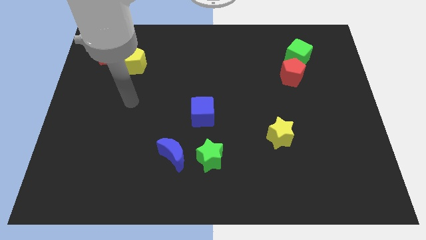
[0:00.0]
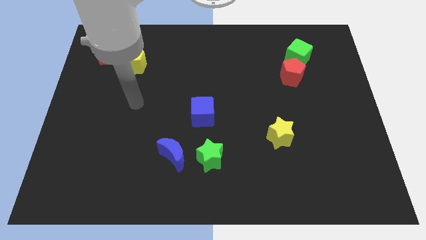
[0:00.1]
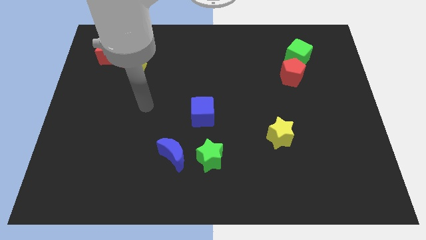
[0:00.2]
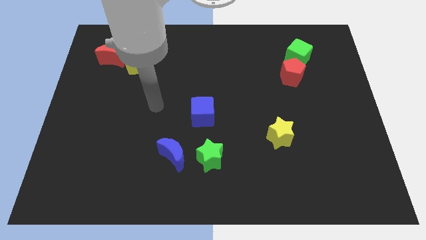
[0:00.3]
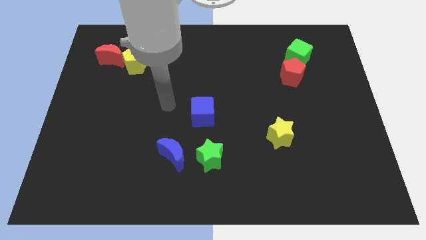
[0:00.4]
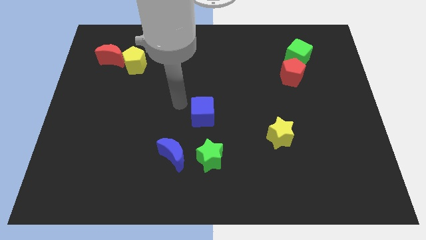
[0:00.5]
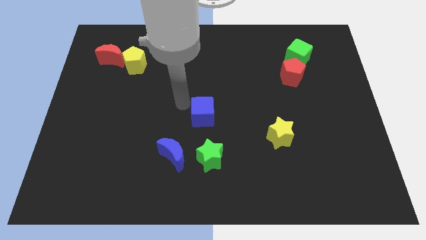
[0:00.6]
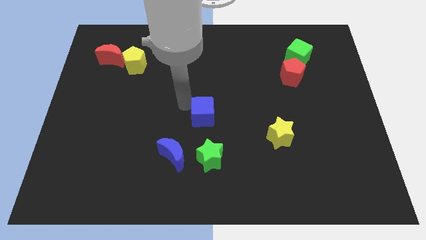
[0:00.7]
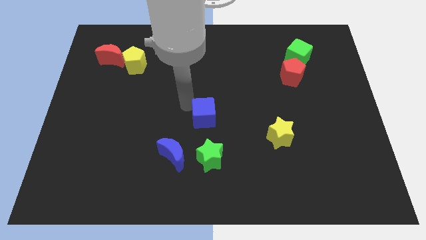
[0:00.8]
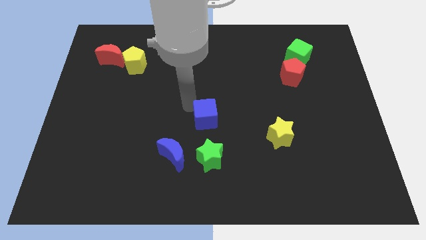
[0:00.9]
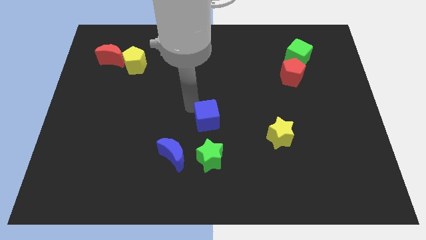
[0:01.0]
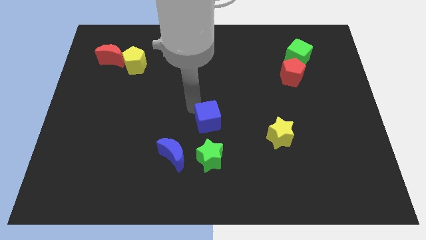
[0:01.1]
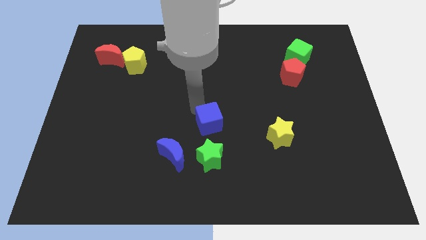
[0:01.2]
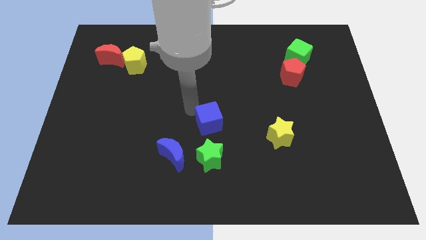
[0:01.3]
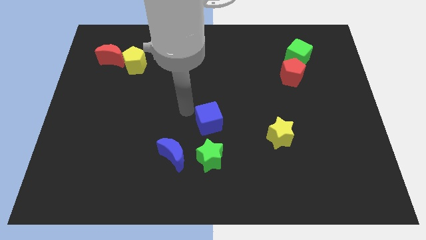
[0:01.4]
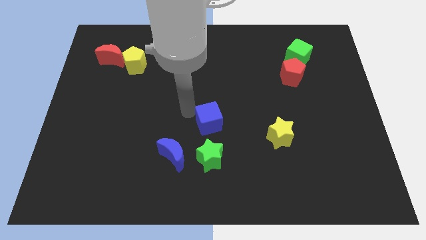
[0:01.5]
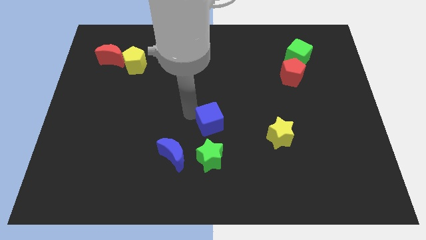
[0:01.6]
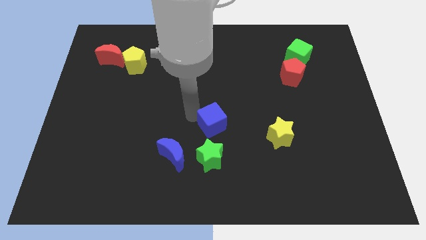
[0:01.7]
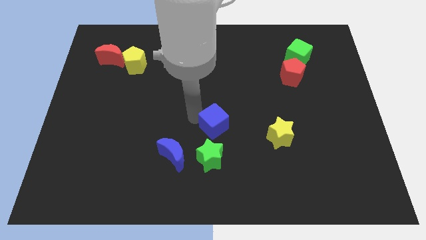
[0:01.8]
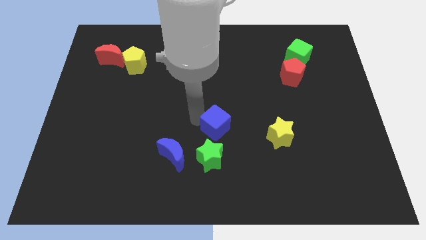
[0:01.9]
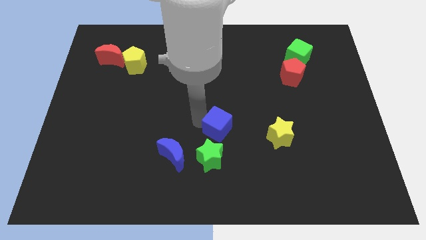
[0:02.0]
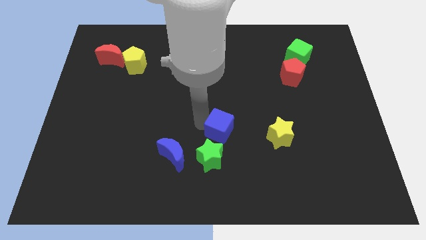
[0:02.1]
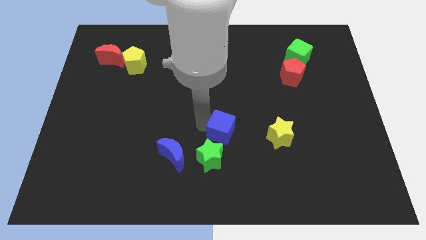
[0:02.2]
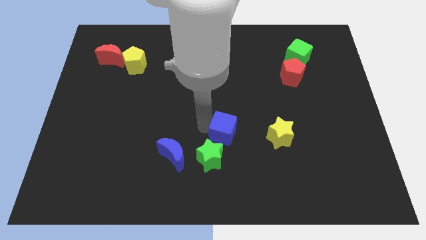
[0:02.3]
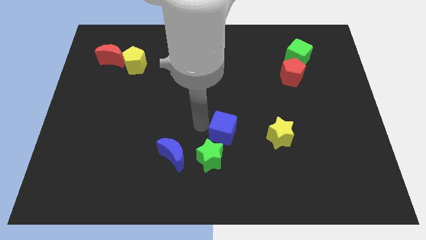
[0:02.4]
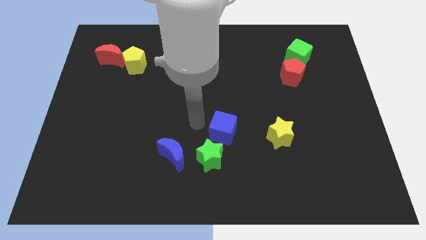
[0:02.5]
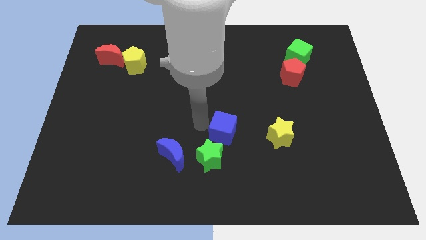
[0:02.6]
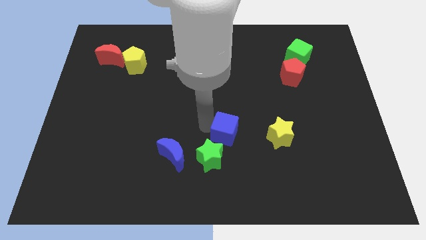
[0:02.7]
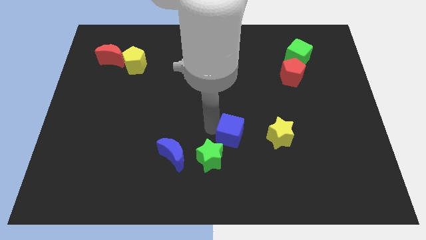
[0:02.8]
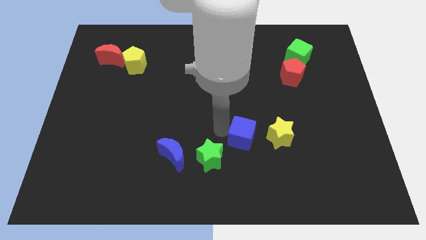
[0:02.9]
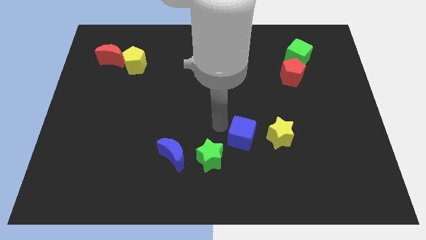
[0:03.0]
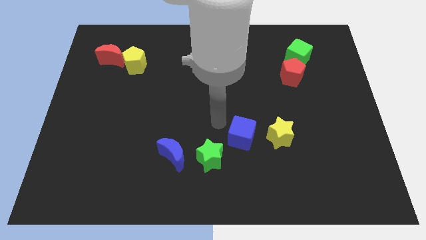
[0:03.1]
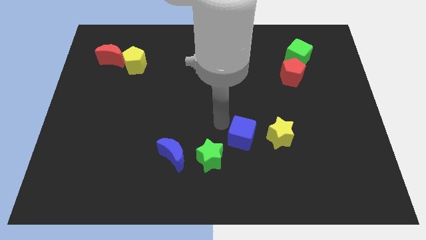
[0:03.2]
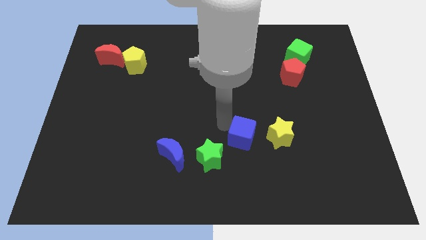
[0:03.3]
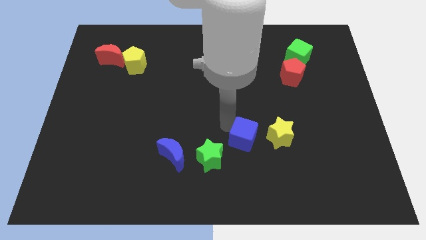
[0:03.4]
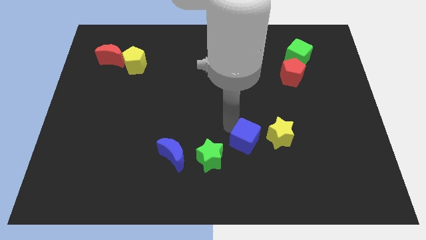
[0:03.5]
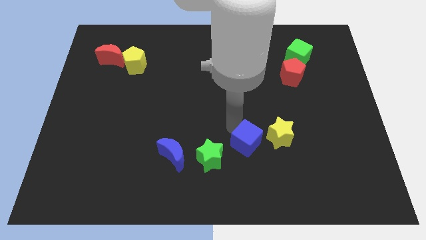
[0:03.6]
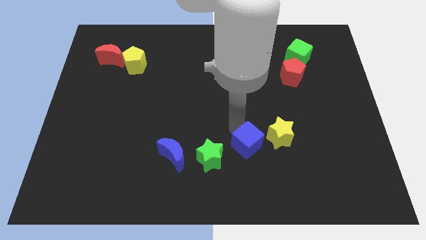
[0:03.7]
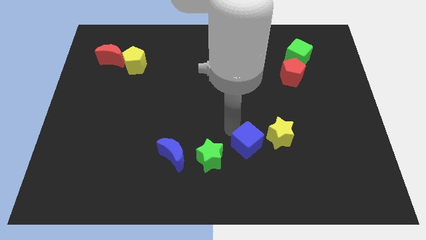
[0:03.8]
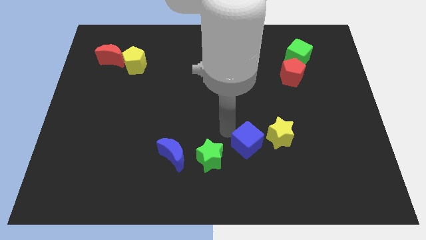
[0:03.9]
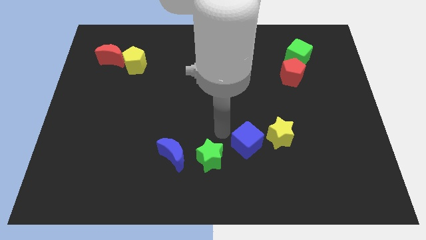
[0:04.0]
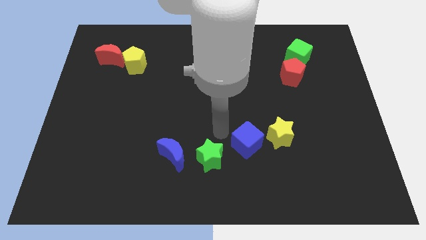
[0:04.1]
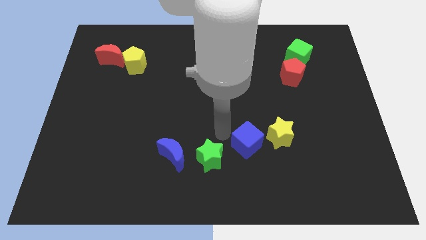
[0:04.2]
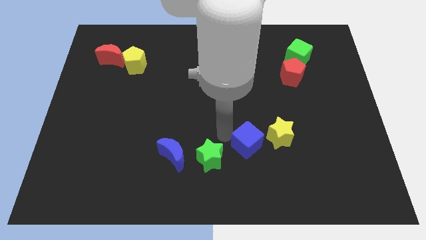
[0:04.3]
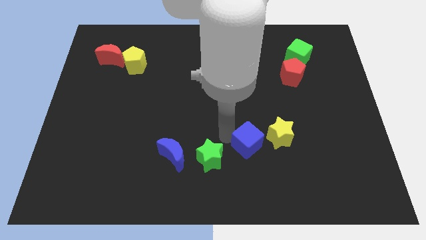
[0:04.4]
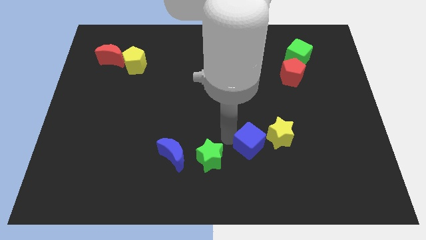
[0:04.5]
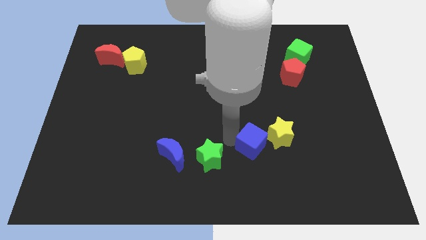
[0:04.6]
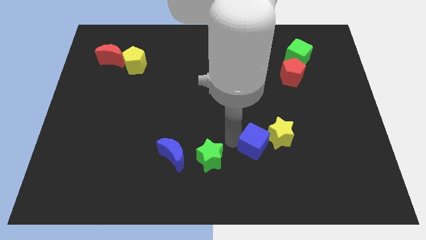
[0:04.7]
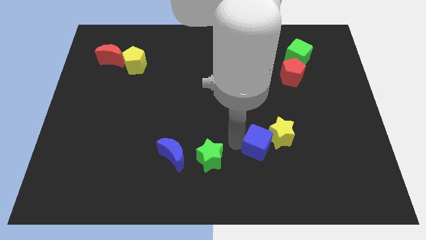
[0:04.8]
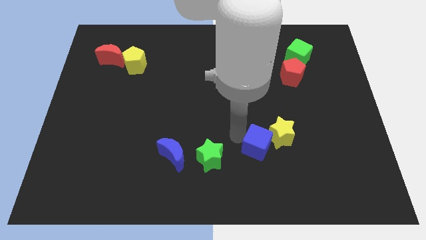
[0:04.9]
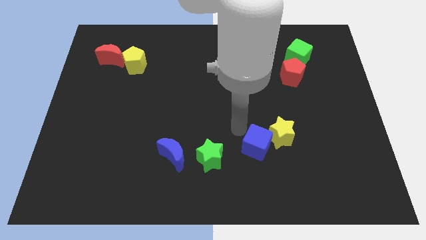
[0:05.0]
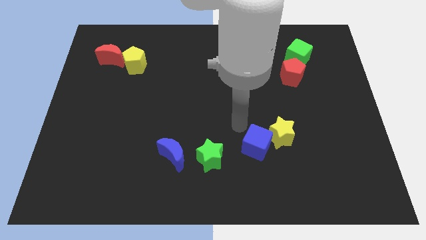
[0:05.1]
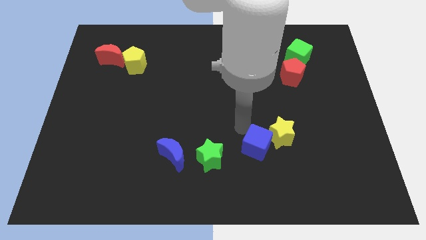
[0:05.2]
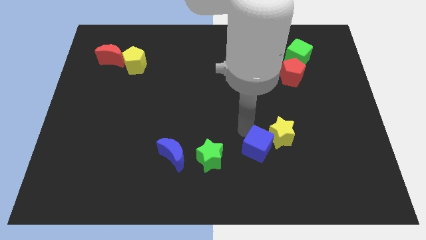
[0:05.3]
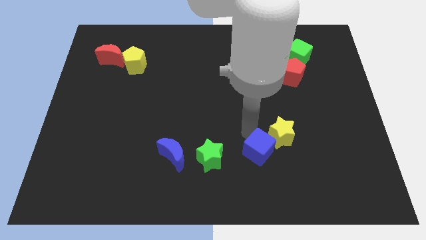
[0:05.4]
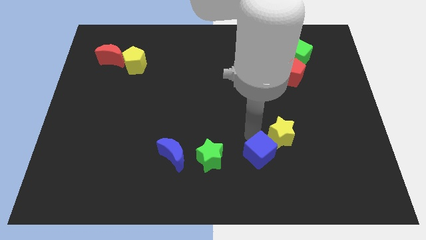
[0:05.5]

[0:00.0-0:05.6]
put the blue cube to the bottom of the yellow star

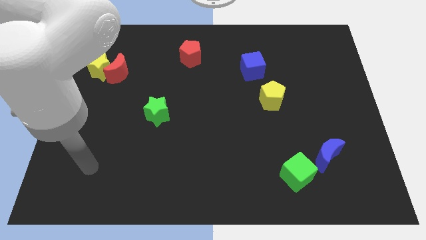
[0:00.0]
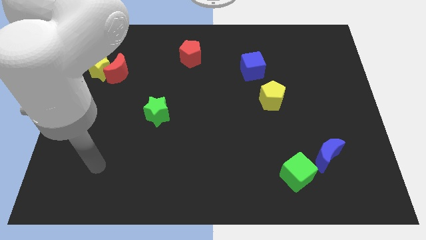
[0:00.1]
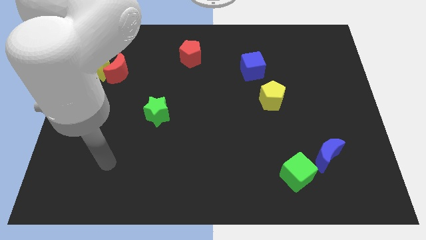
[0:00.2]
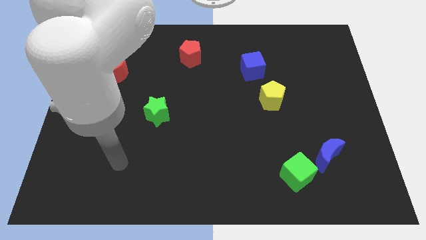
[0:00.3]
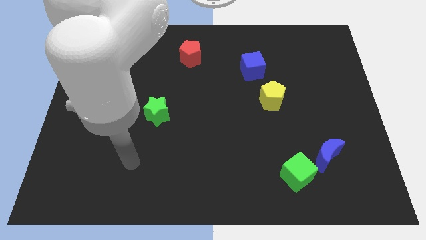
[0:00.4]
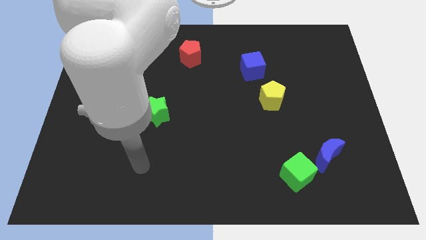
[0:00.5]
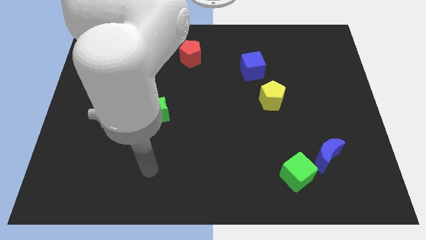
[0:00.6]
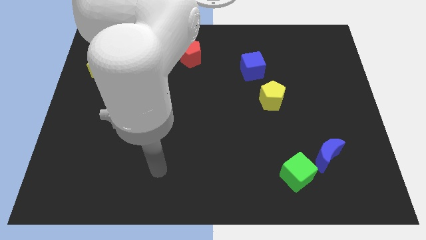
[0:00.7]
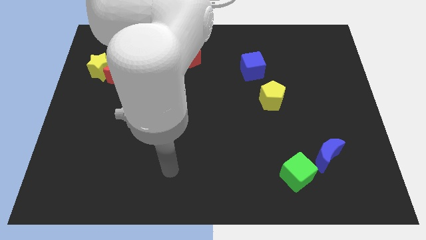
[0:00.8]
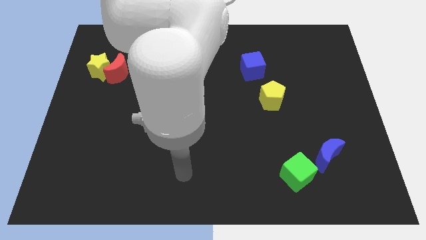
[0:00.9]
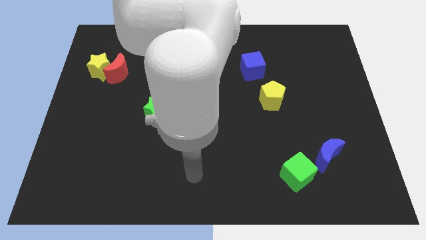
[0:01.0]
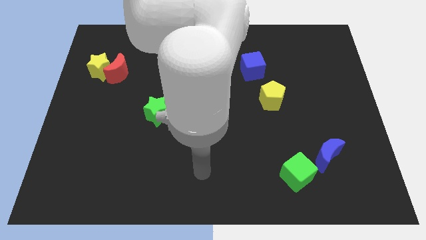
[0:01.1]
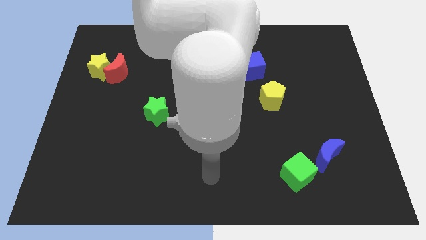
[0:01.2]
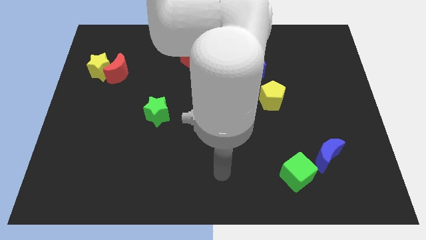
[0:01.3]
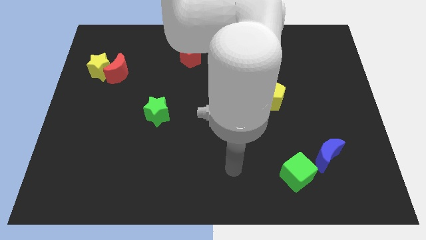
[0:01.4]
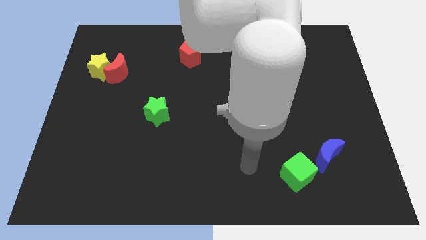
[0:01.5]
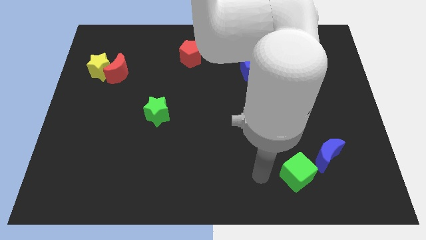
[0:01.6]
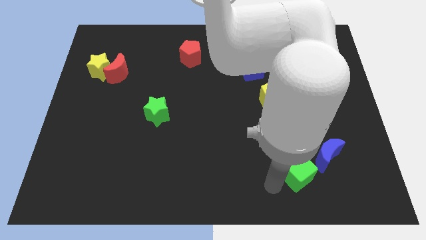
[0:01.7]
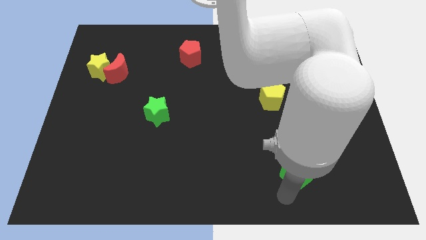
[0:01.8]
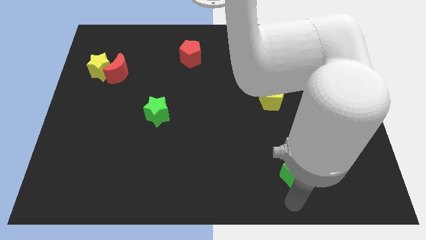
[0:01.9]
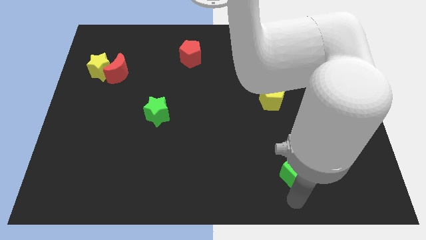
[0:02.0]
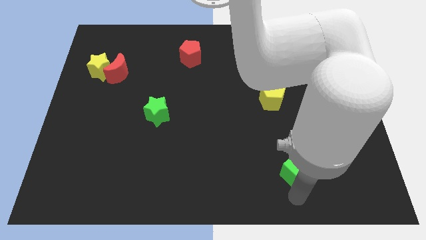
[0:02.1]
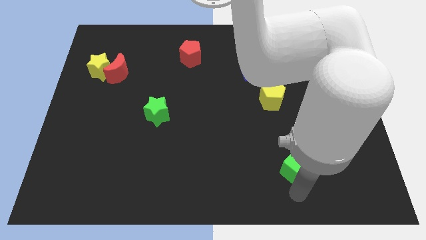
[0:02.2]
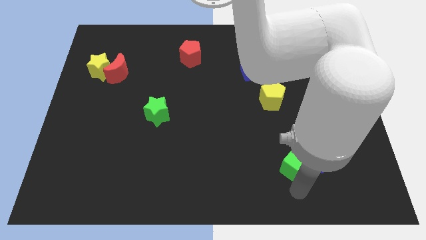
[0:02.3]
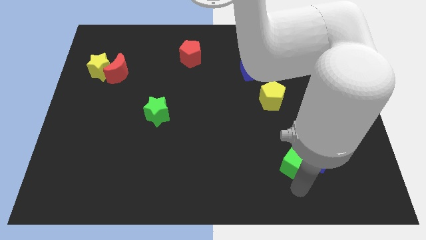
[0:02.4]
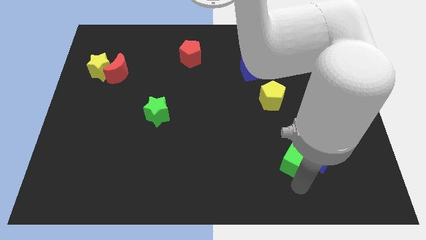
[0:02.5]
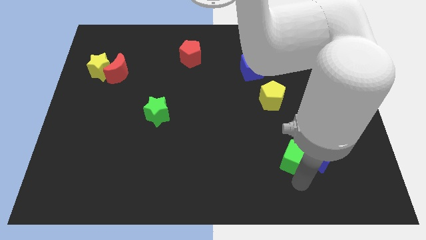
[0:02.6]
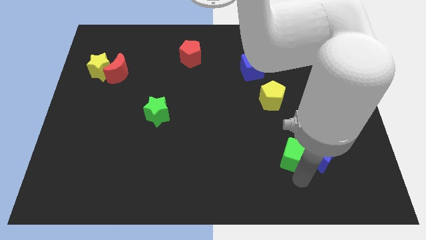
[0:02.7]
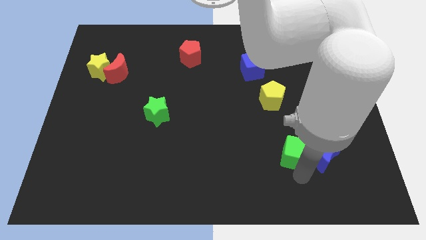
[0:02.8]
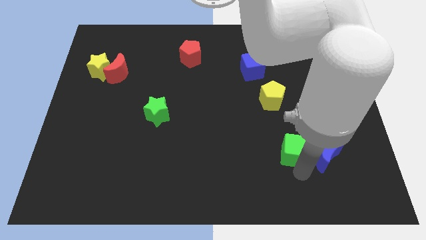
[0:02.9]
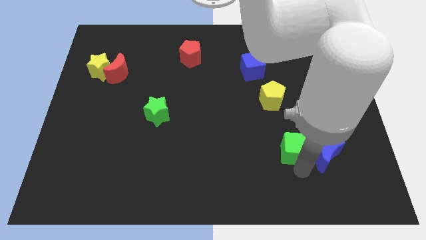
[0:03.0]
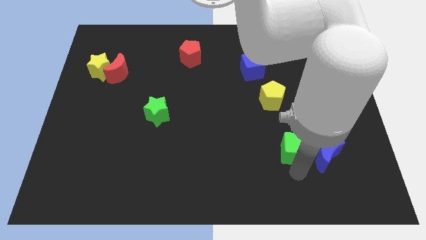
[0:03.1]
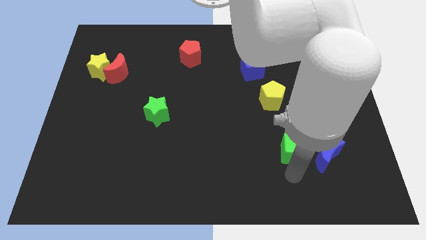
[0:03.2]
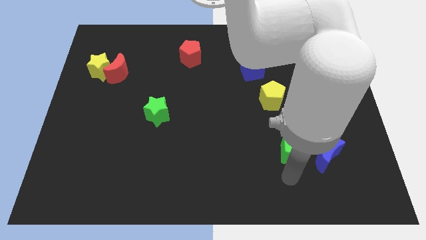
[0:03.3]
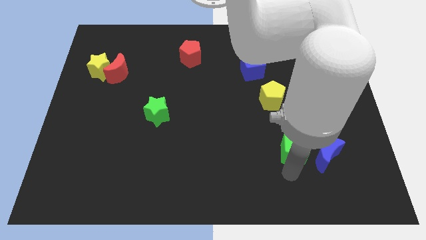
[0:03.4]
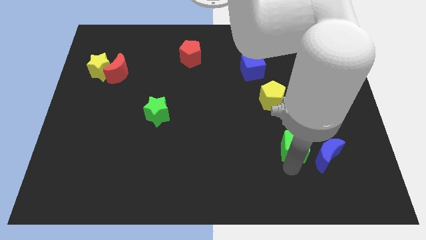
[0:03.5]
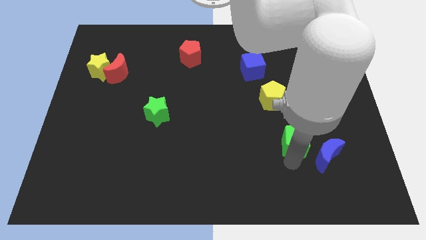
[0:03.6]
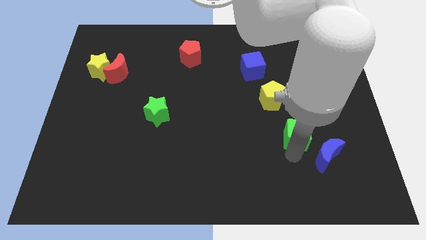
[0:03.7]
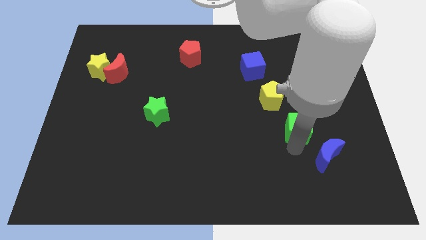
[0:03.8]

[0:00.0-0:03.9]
move the green cube diagonally down and to the right of the yellow pentagon
